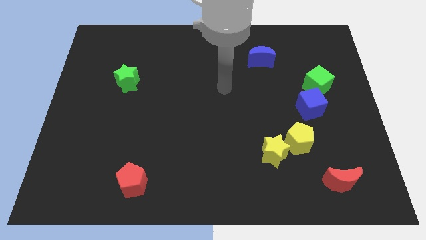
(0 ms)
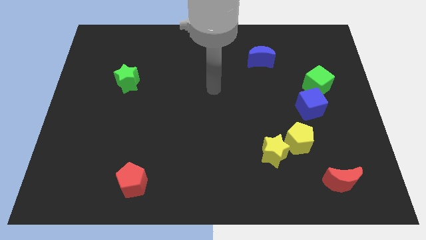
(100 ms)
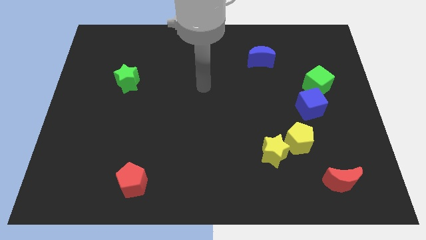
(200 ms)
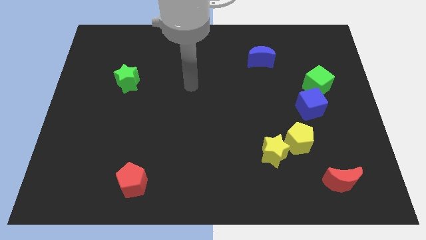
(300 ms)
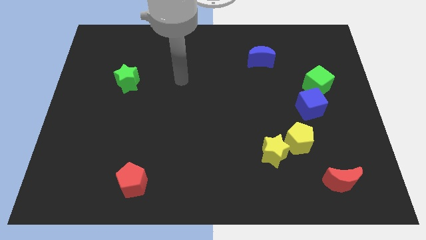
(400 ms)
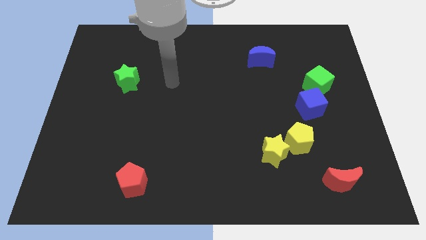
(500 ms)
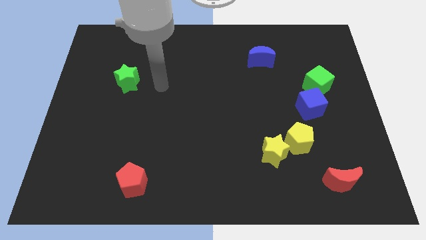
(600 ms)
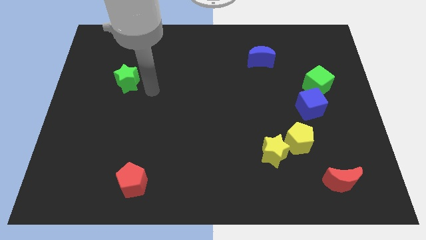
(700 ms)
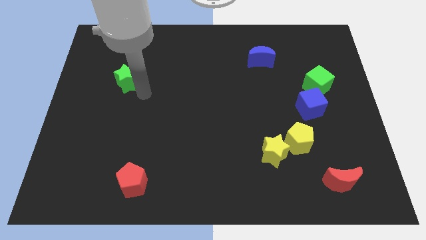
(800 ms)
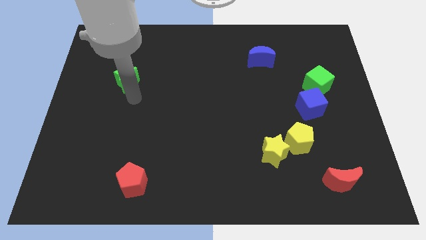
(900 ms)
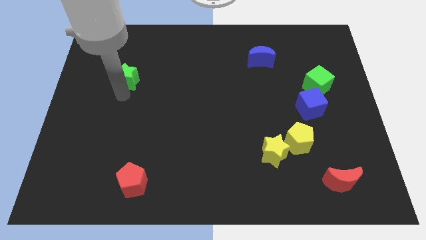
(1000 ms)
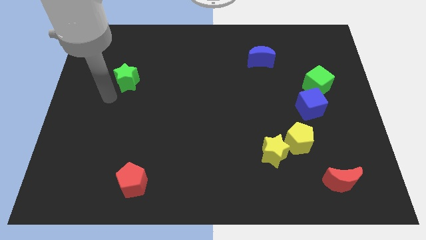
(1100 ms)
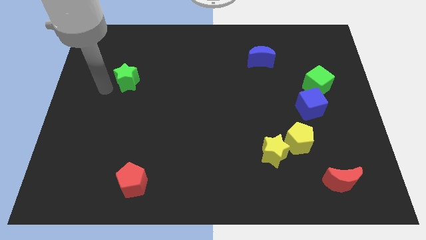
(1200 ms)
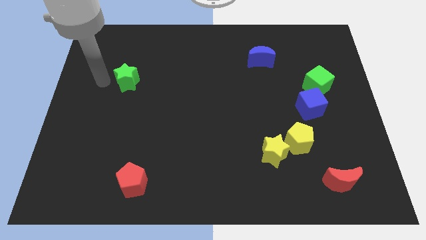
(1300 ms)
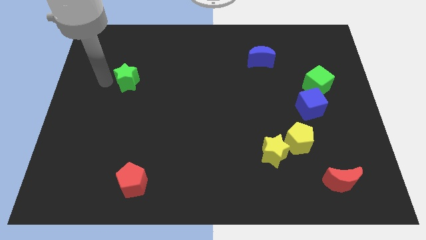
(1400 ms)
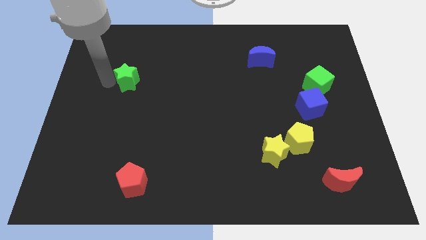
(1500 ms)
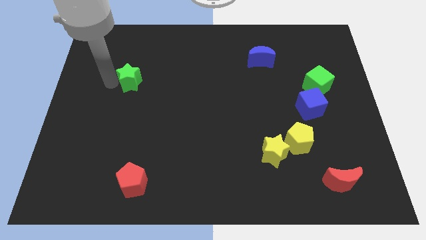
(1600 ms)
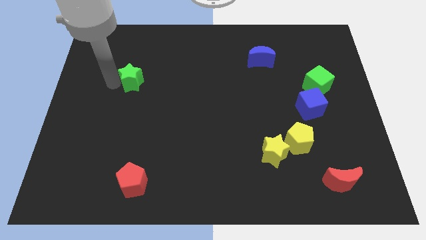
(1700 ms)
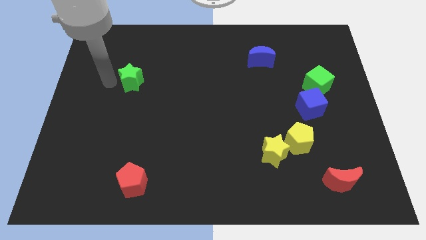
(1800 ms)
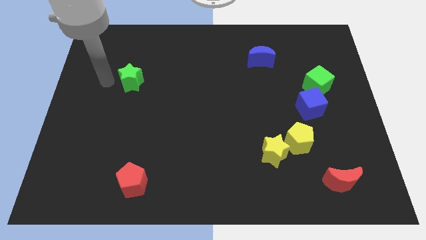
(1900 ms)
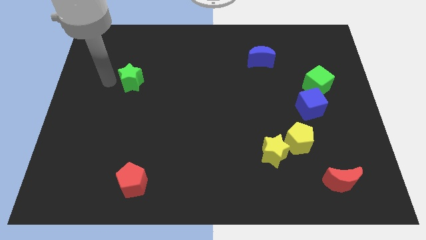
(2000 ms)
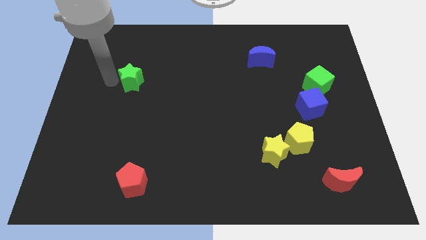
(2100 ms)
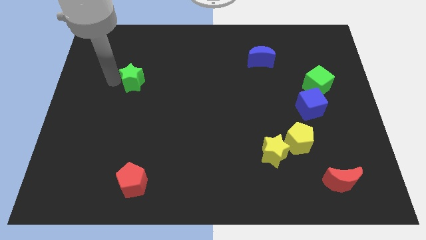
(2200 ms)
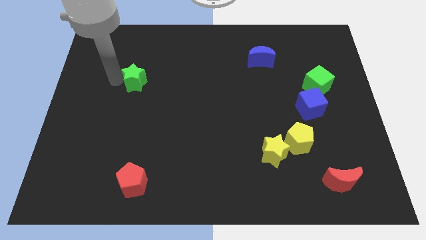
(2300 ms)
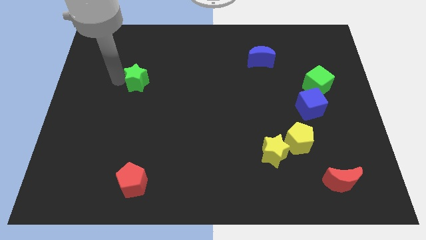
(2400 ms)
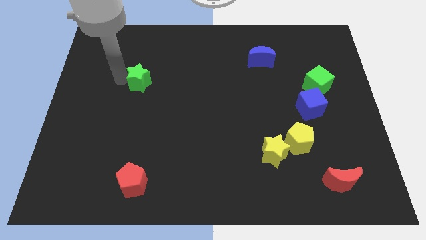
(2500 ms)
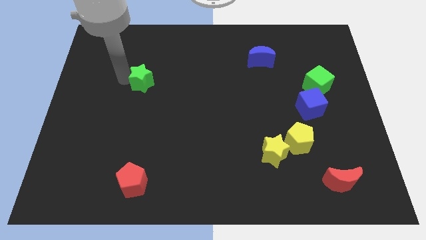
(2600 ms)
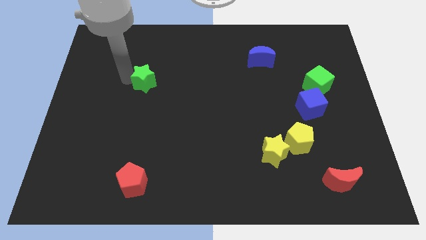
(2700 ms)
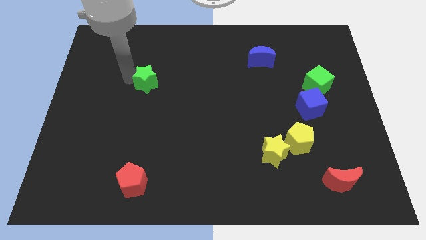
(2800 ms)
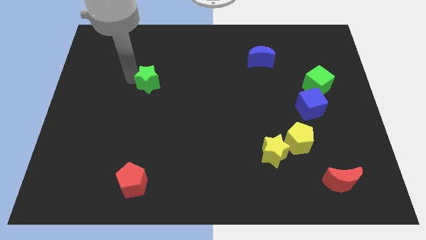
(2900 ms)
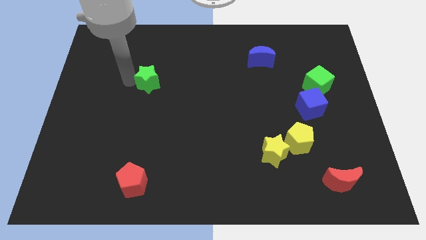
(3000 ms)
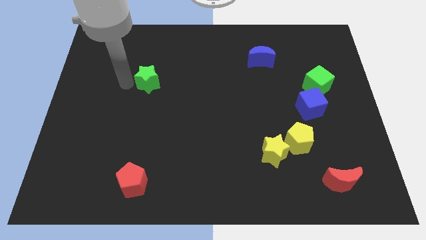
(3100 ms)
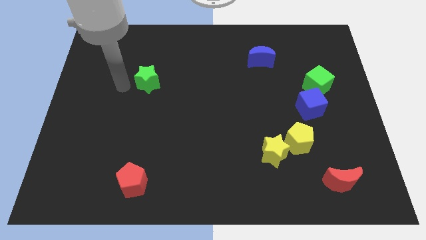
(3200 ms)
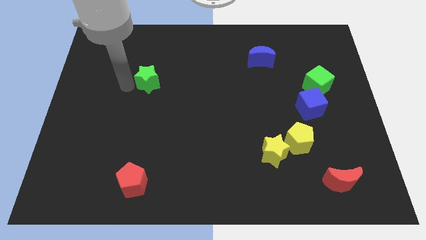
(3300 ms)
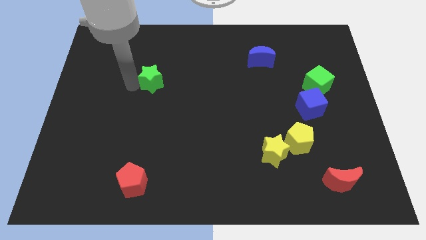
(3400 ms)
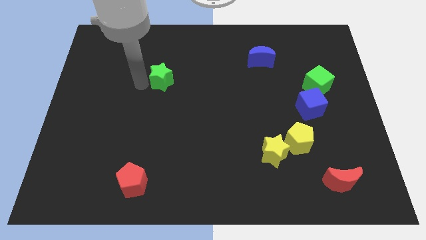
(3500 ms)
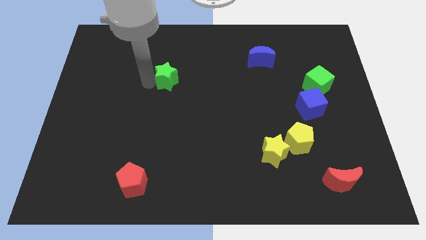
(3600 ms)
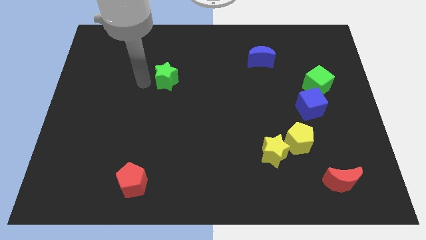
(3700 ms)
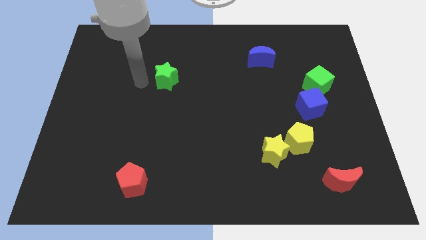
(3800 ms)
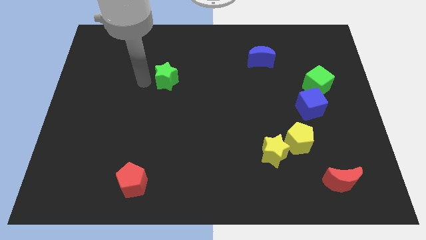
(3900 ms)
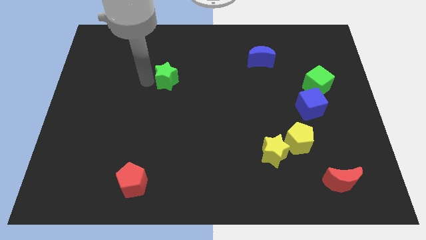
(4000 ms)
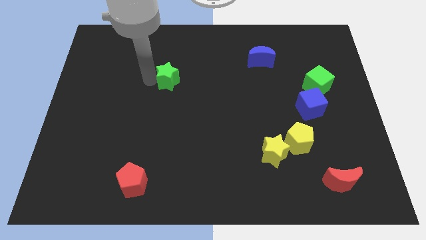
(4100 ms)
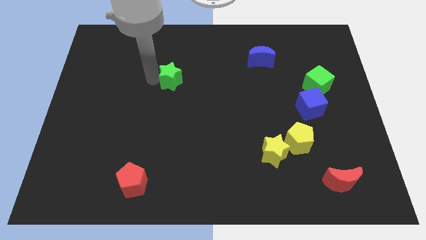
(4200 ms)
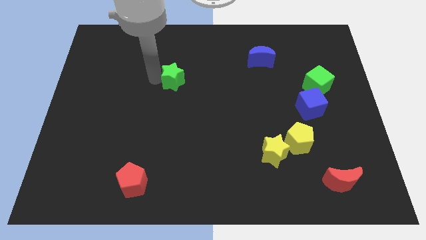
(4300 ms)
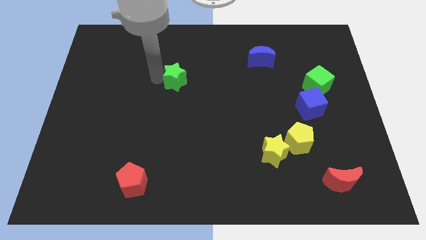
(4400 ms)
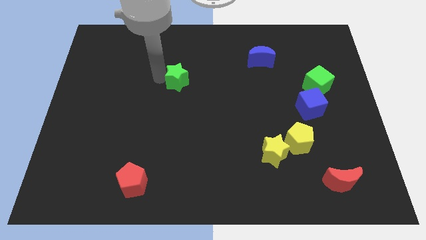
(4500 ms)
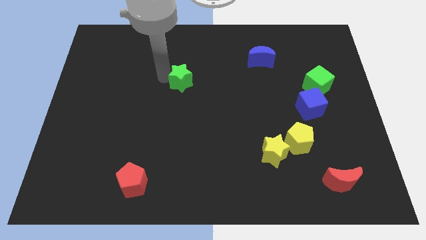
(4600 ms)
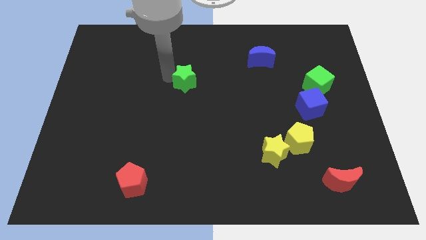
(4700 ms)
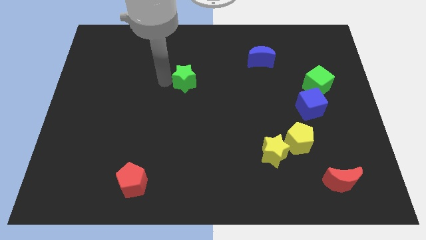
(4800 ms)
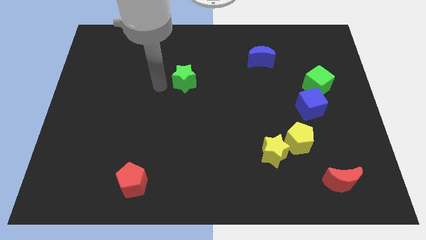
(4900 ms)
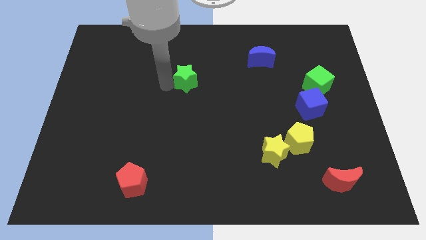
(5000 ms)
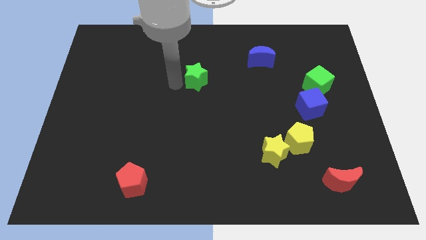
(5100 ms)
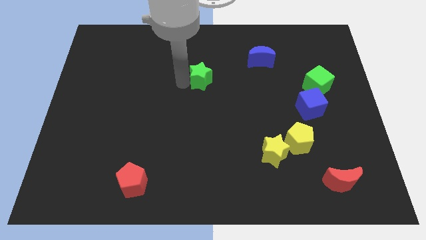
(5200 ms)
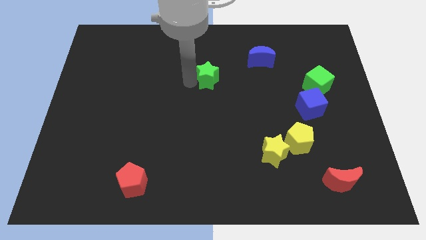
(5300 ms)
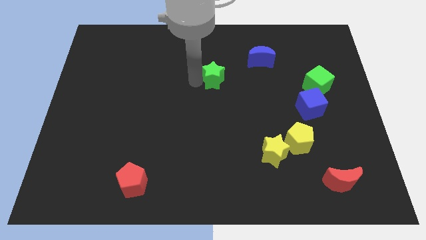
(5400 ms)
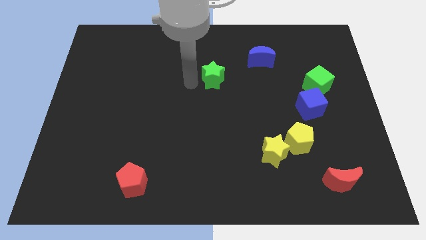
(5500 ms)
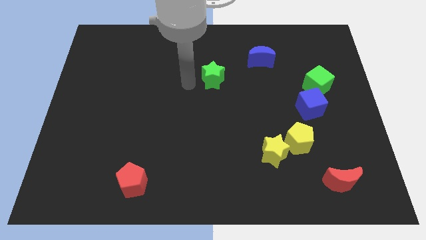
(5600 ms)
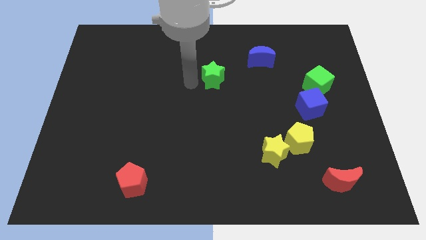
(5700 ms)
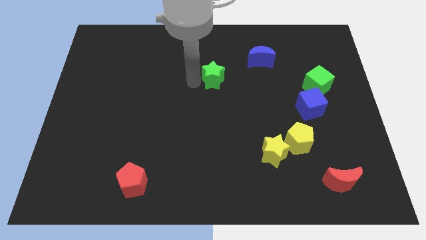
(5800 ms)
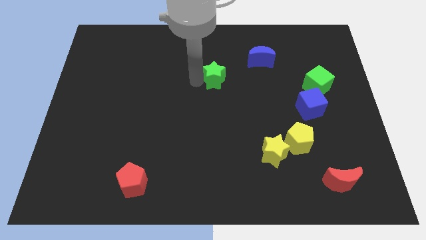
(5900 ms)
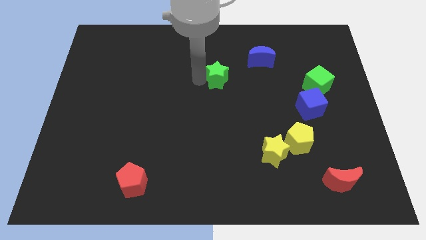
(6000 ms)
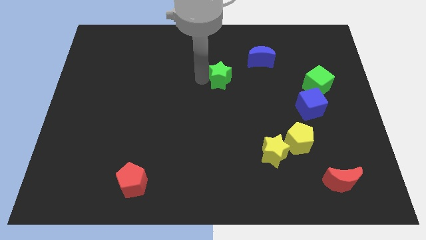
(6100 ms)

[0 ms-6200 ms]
move the green star to the bottom left of the blue moon

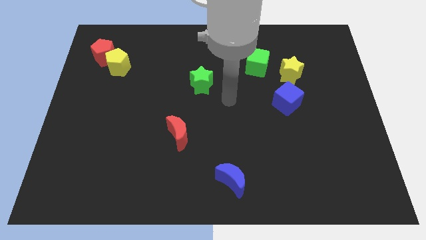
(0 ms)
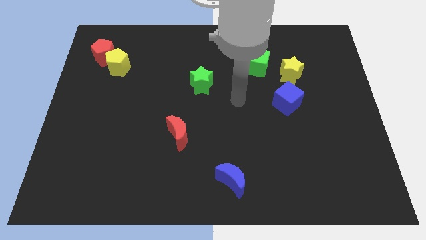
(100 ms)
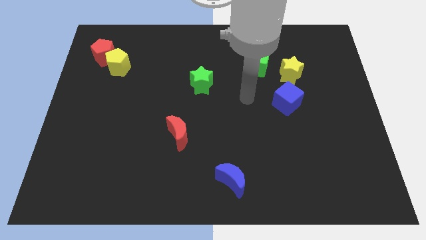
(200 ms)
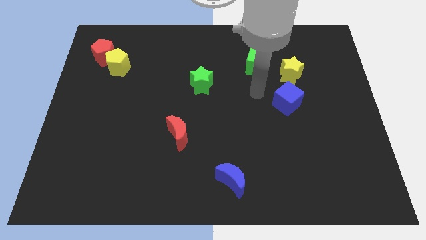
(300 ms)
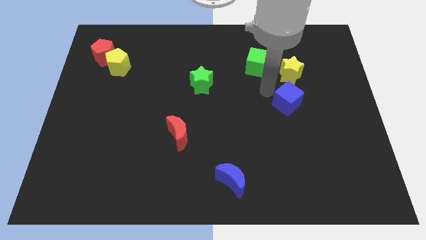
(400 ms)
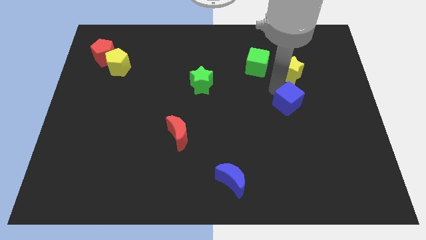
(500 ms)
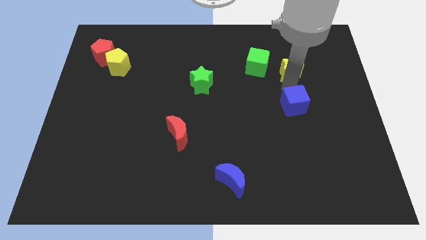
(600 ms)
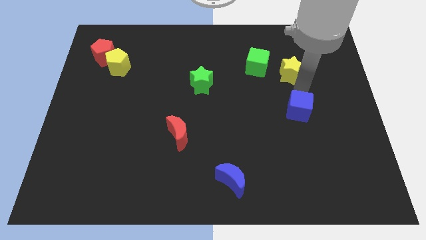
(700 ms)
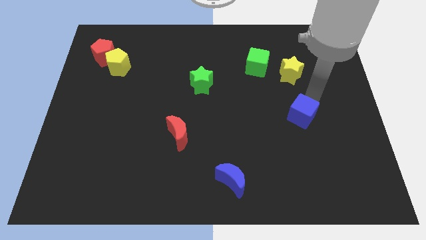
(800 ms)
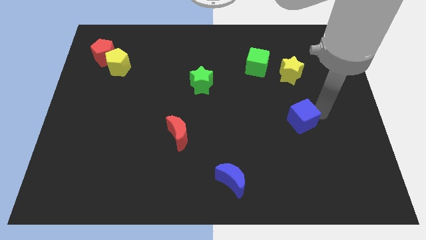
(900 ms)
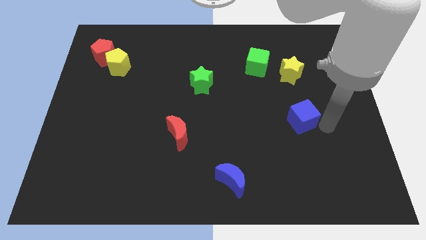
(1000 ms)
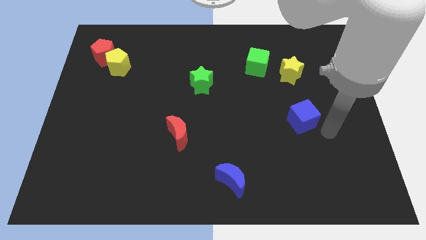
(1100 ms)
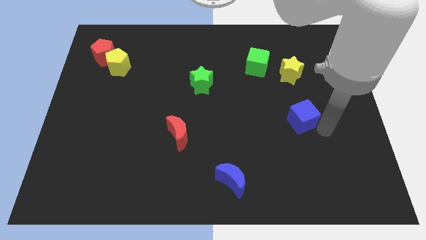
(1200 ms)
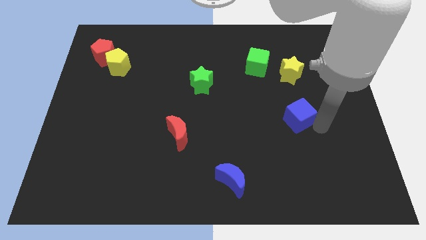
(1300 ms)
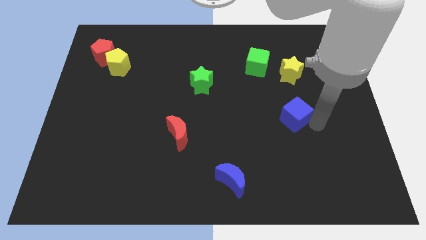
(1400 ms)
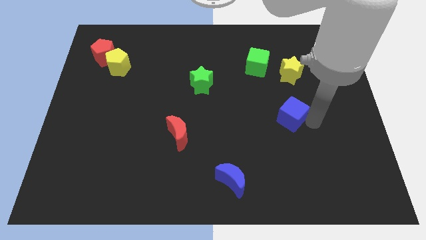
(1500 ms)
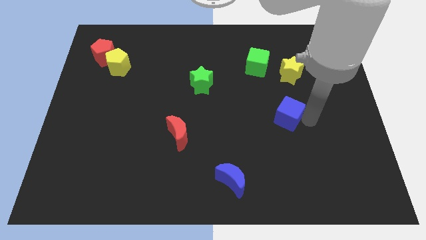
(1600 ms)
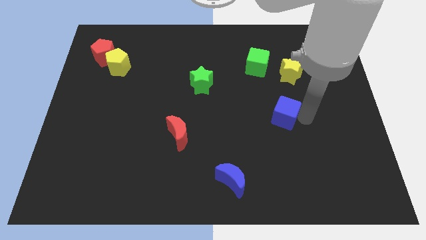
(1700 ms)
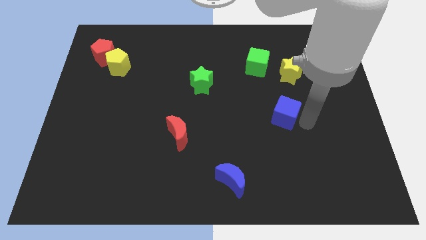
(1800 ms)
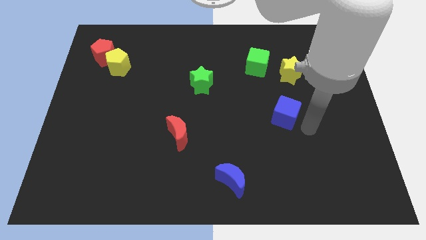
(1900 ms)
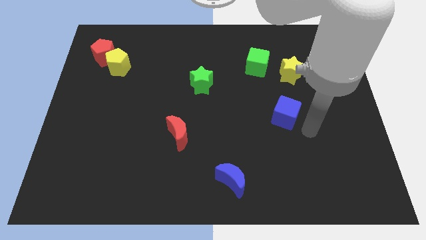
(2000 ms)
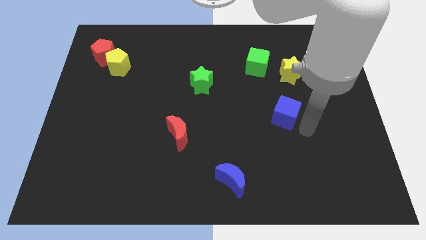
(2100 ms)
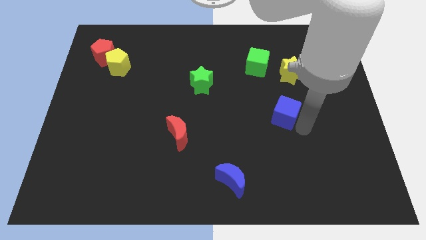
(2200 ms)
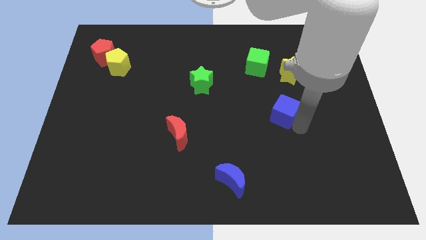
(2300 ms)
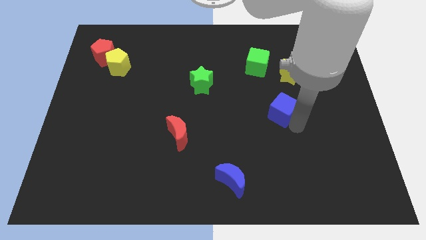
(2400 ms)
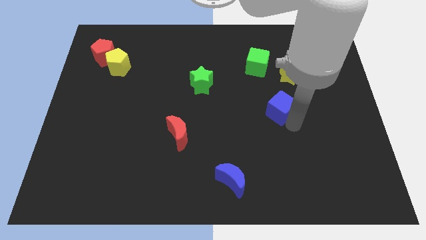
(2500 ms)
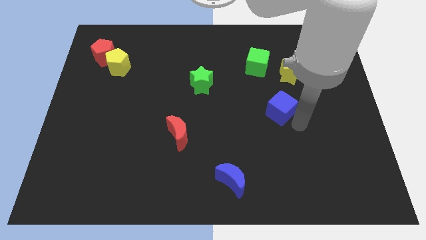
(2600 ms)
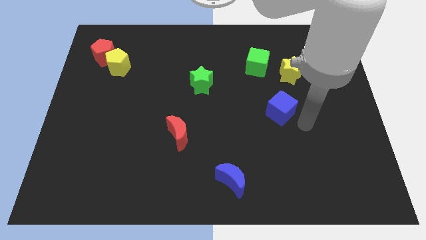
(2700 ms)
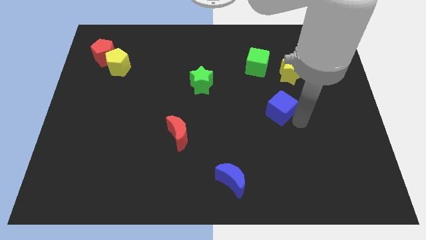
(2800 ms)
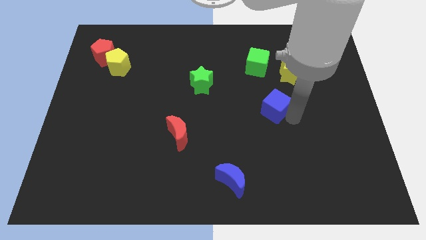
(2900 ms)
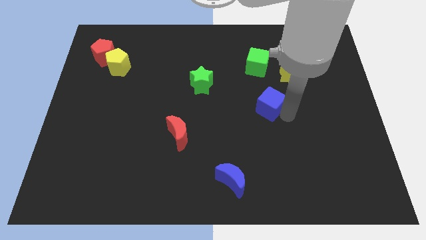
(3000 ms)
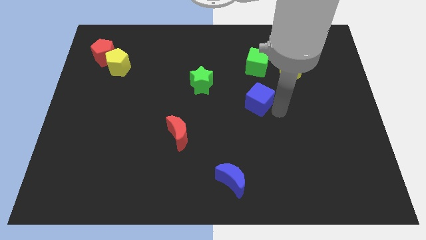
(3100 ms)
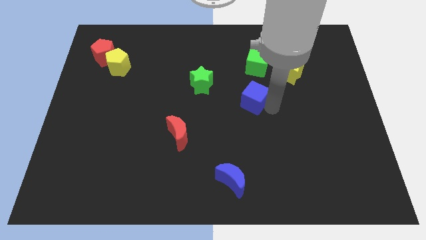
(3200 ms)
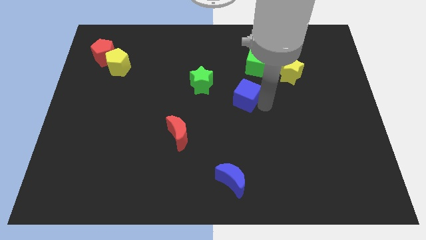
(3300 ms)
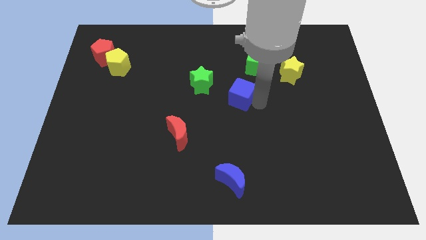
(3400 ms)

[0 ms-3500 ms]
push the blue cube diagonally down and to the right of the green star
